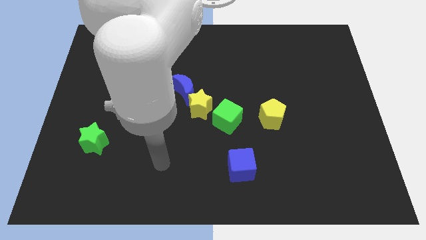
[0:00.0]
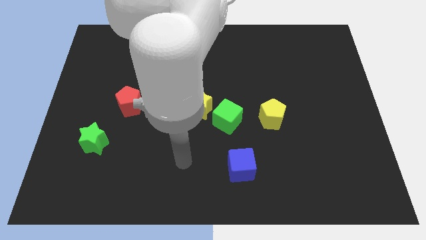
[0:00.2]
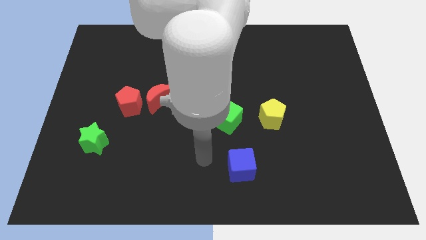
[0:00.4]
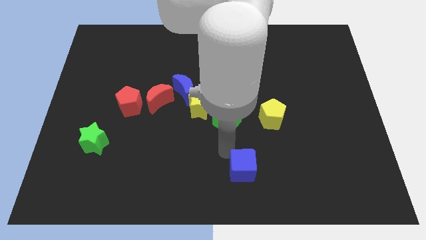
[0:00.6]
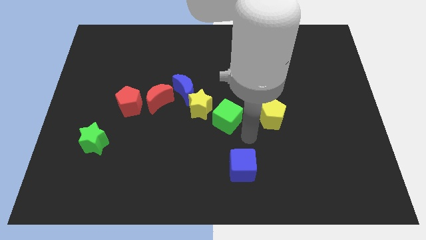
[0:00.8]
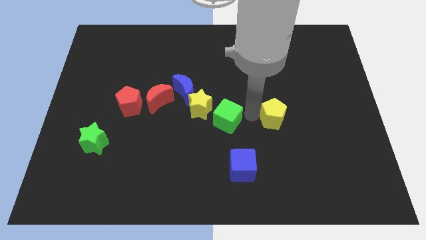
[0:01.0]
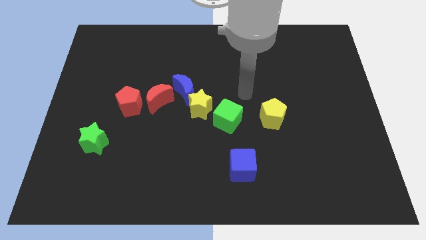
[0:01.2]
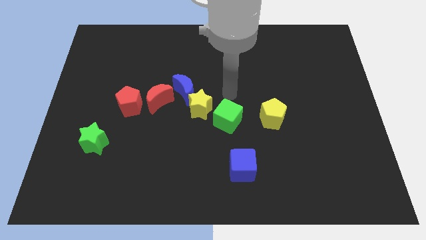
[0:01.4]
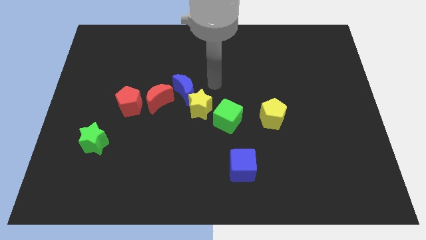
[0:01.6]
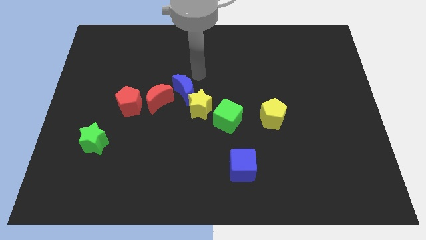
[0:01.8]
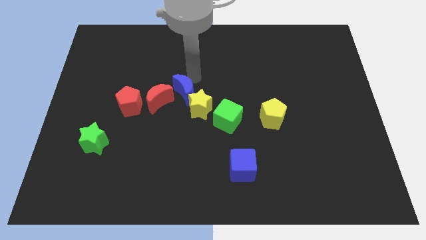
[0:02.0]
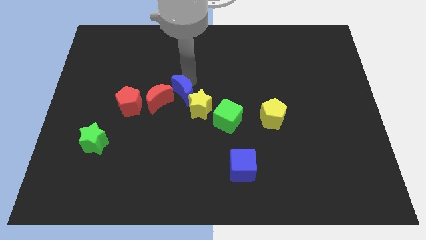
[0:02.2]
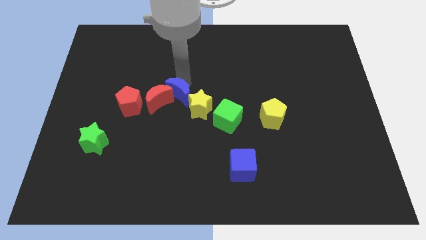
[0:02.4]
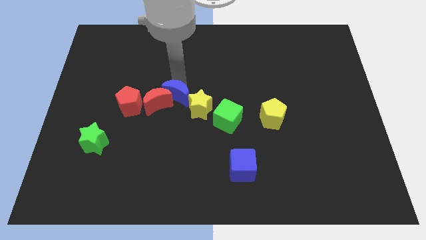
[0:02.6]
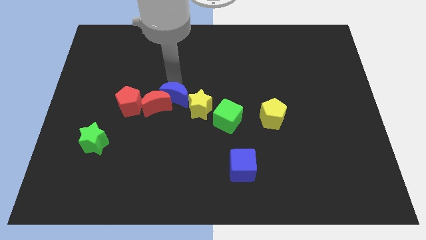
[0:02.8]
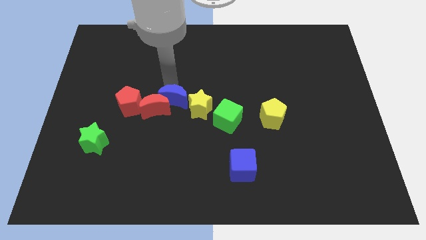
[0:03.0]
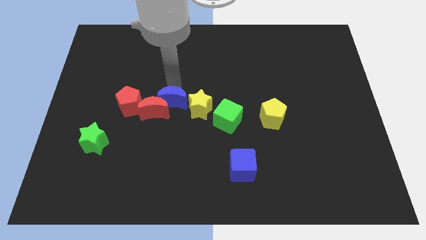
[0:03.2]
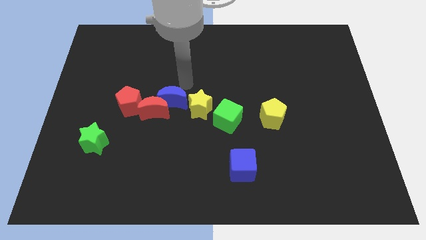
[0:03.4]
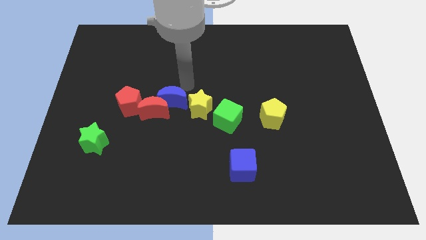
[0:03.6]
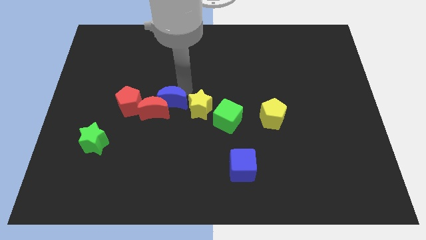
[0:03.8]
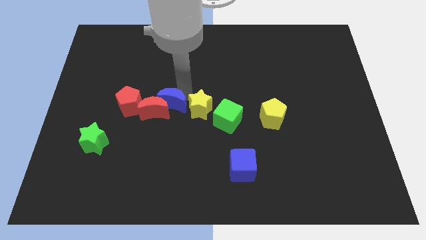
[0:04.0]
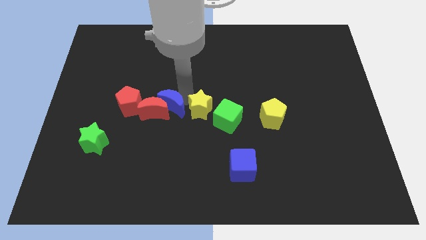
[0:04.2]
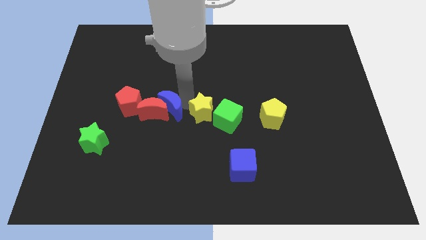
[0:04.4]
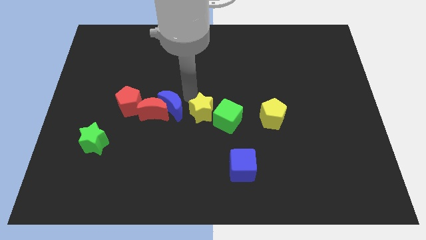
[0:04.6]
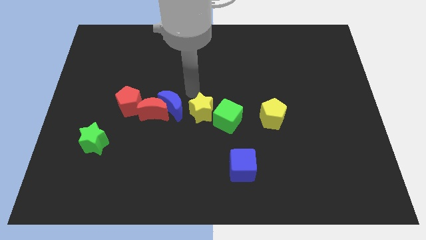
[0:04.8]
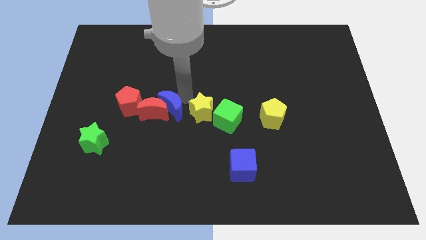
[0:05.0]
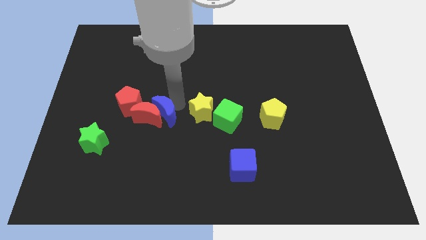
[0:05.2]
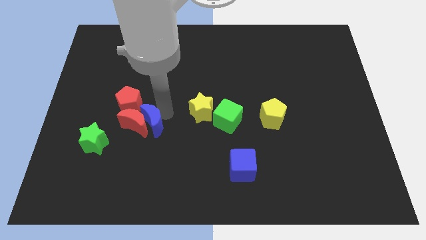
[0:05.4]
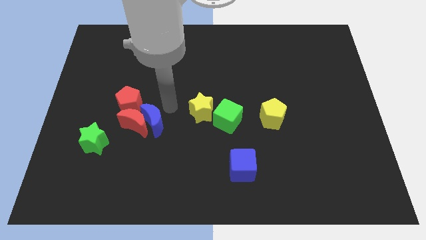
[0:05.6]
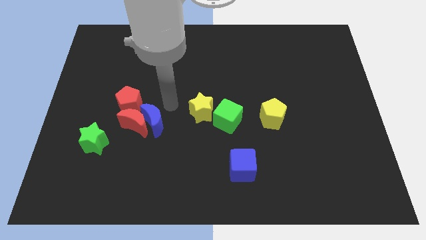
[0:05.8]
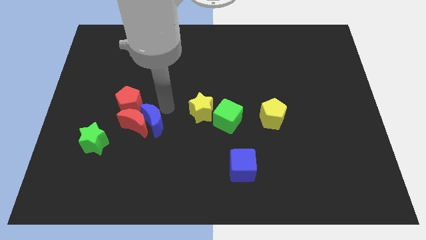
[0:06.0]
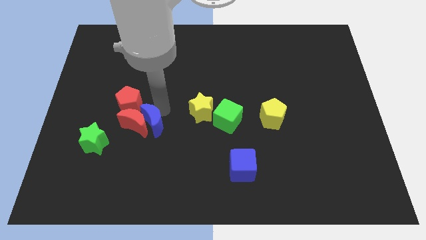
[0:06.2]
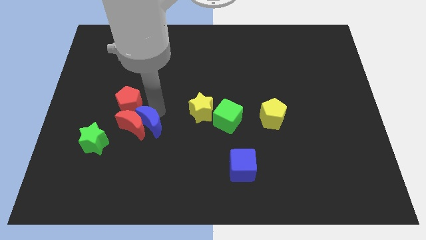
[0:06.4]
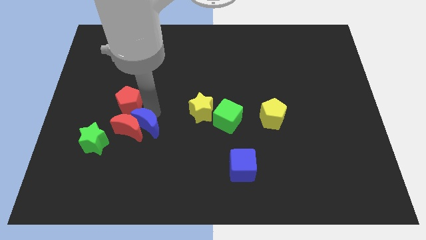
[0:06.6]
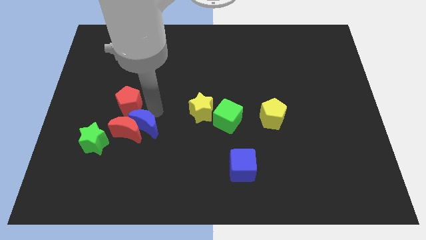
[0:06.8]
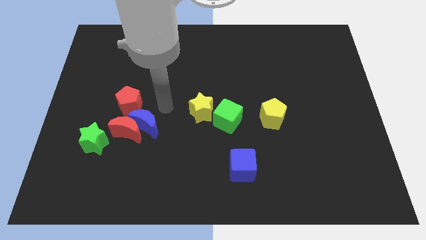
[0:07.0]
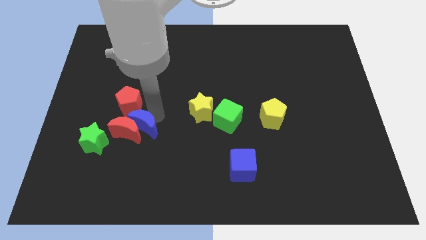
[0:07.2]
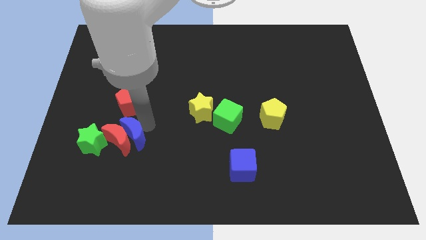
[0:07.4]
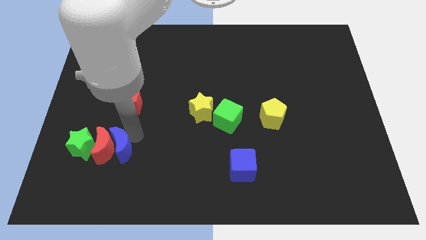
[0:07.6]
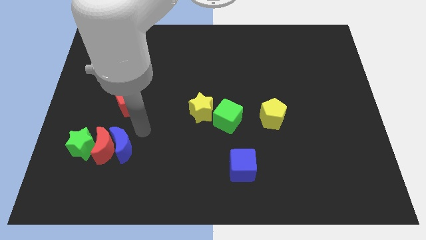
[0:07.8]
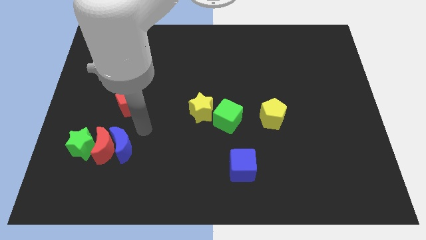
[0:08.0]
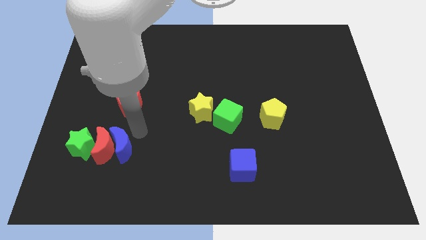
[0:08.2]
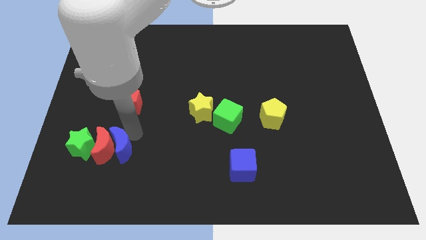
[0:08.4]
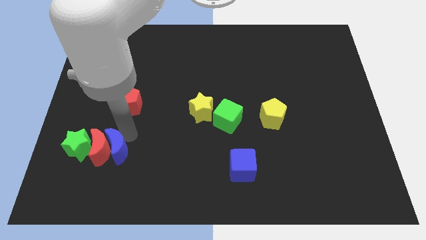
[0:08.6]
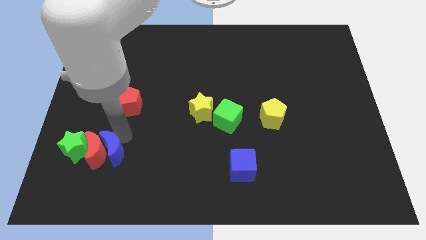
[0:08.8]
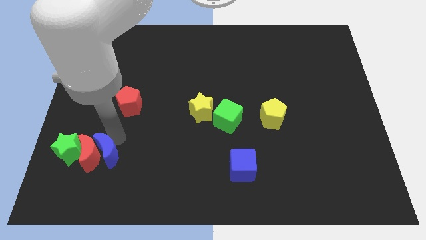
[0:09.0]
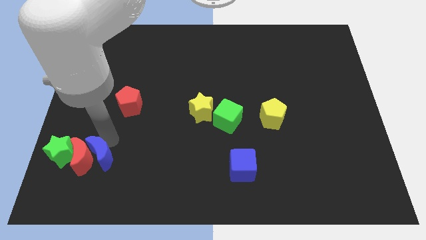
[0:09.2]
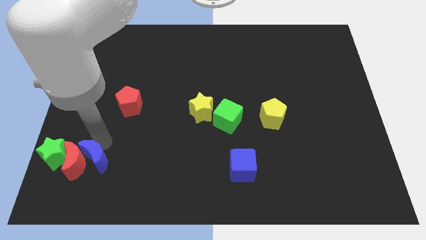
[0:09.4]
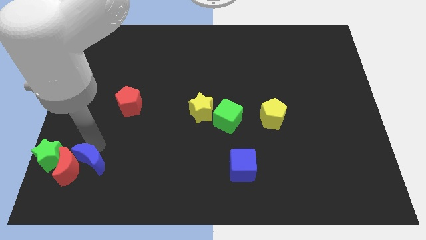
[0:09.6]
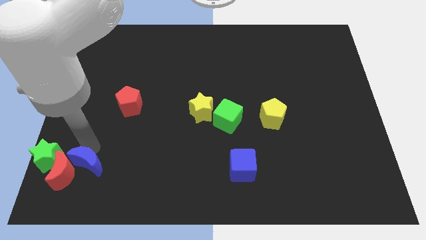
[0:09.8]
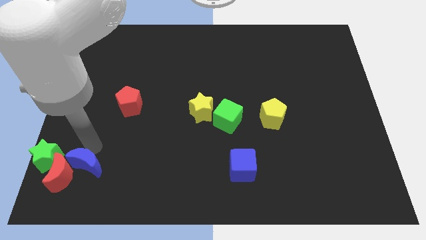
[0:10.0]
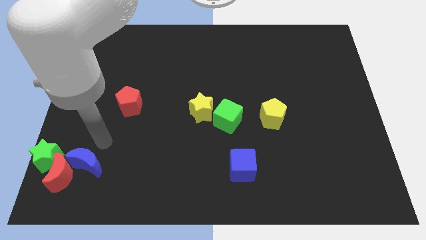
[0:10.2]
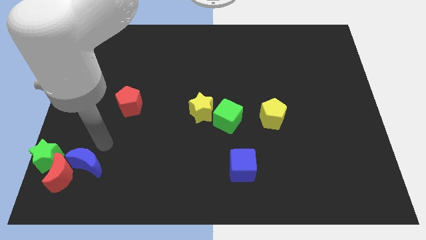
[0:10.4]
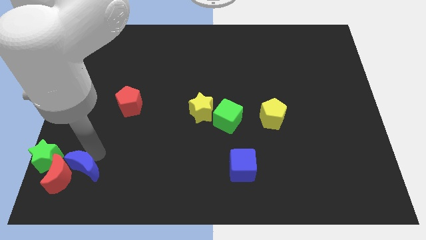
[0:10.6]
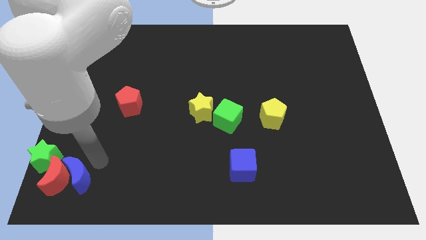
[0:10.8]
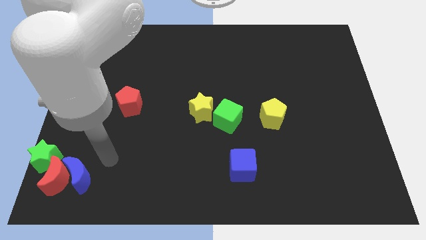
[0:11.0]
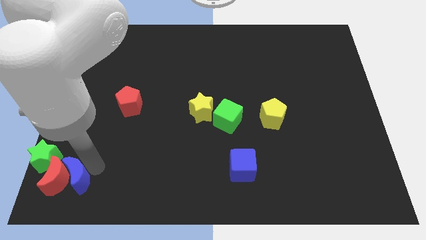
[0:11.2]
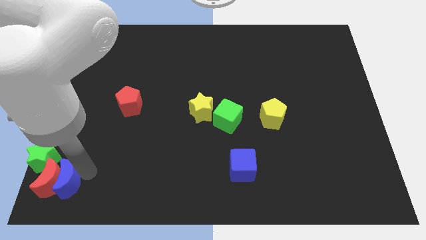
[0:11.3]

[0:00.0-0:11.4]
put the blue moon to the lower left corner

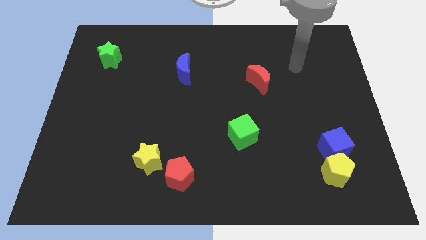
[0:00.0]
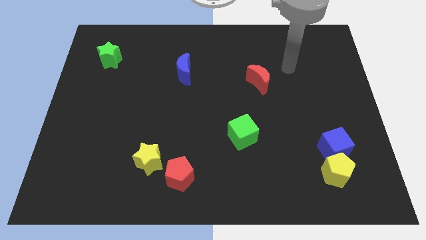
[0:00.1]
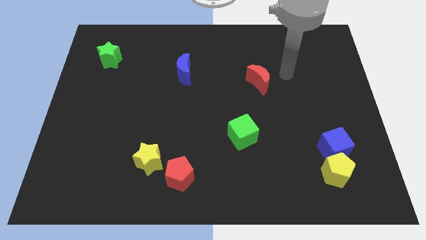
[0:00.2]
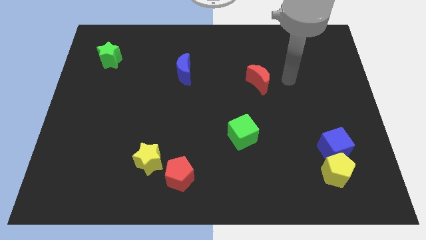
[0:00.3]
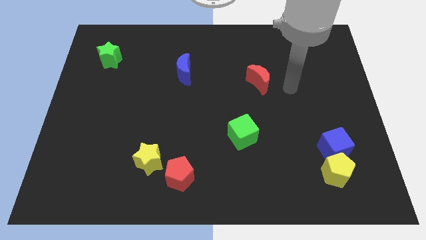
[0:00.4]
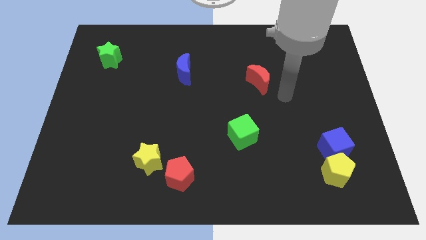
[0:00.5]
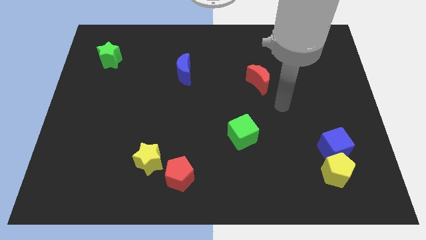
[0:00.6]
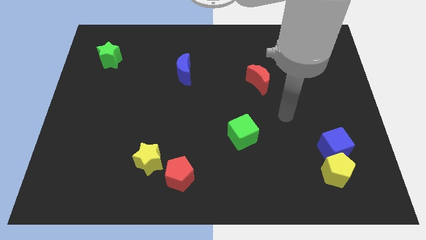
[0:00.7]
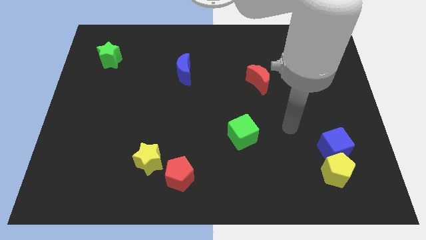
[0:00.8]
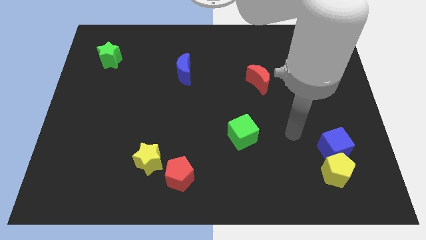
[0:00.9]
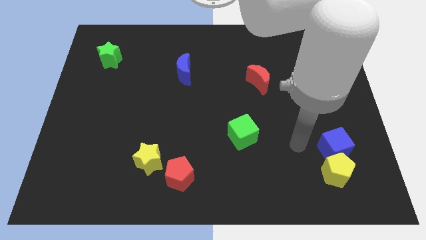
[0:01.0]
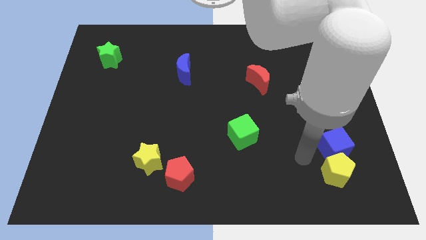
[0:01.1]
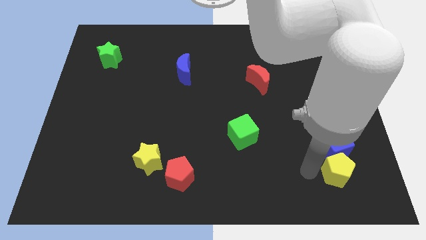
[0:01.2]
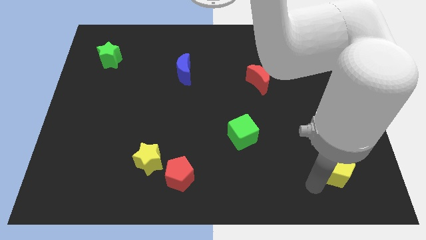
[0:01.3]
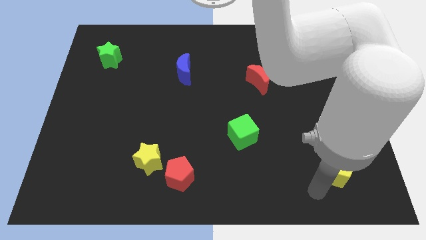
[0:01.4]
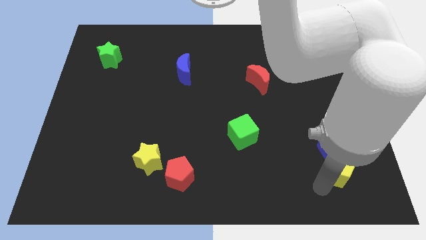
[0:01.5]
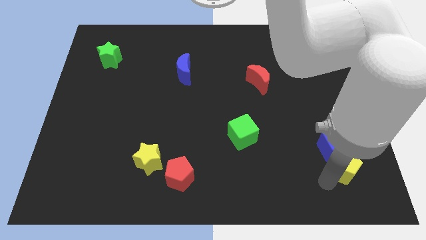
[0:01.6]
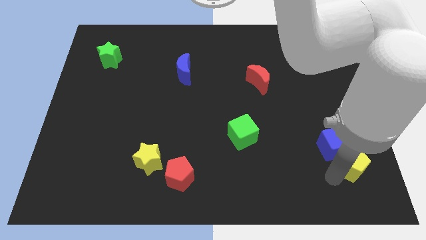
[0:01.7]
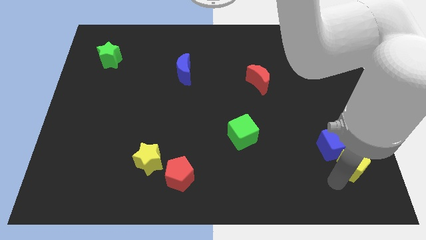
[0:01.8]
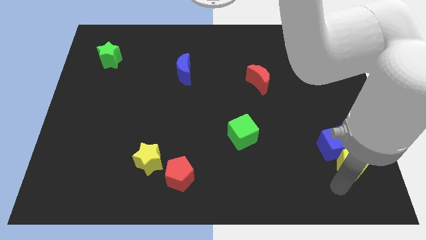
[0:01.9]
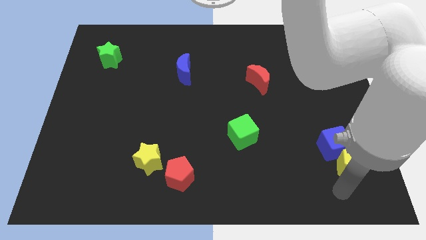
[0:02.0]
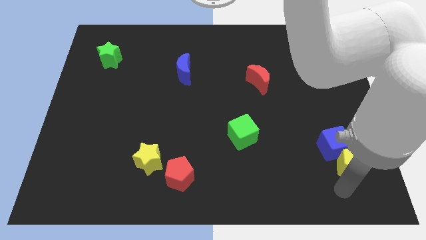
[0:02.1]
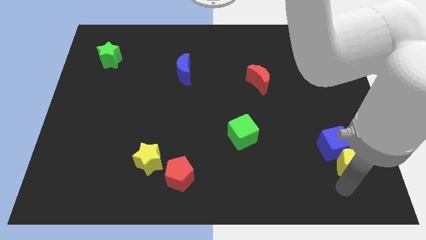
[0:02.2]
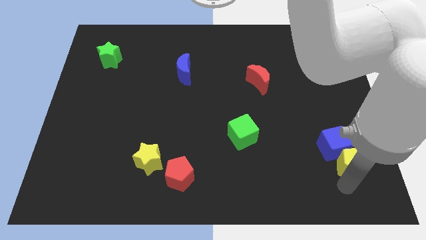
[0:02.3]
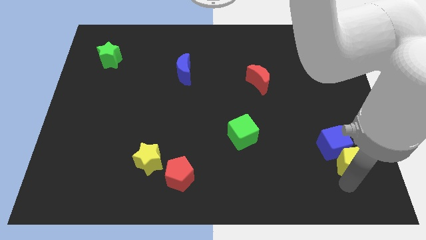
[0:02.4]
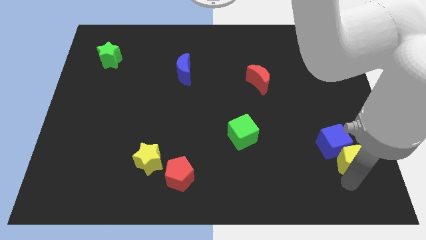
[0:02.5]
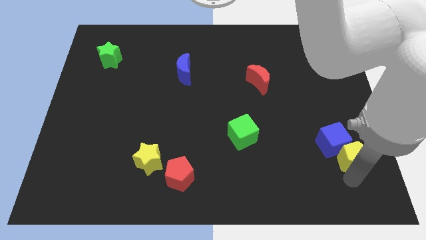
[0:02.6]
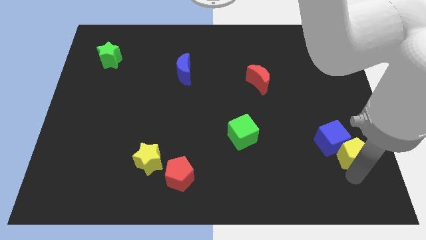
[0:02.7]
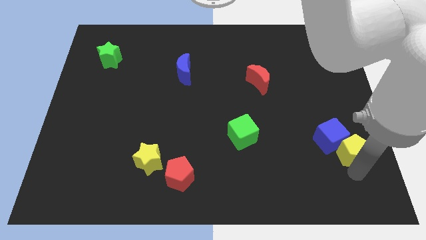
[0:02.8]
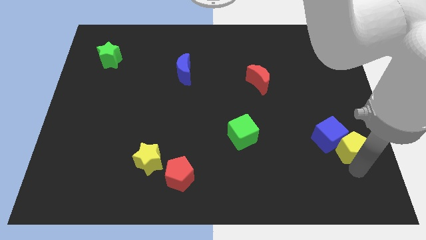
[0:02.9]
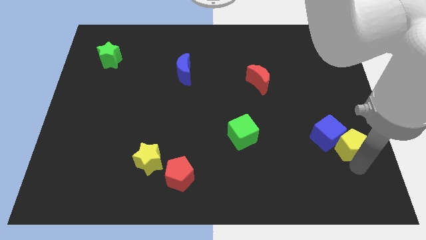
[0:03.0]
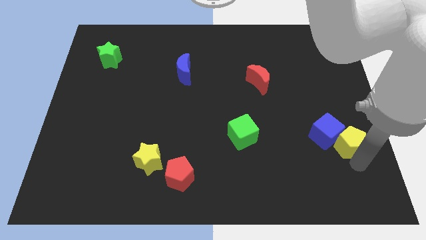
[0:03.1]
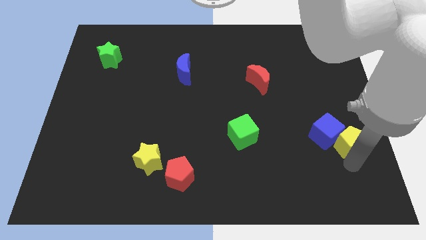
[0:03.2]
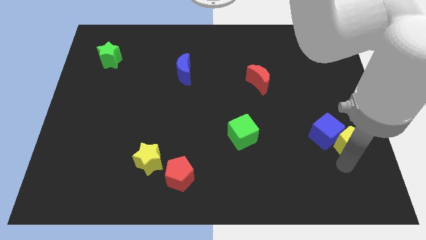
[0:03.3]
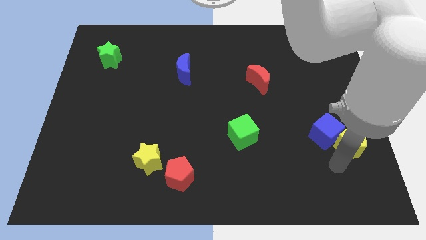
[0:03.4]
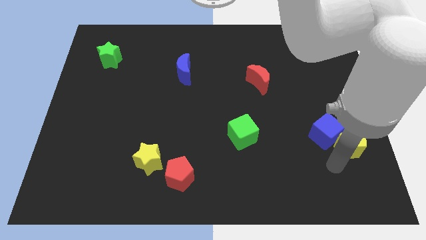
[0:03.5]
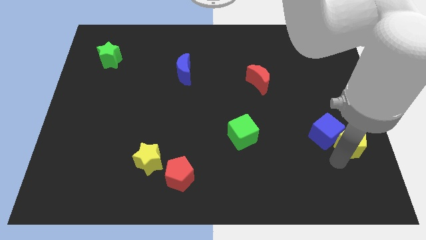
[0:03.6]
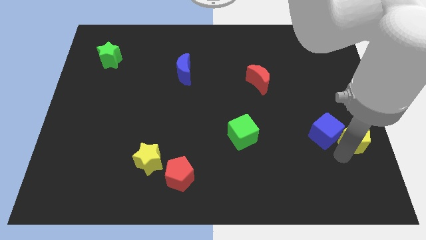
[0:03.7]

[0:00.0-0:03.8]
move the yellow pentagon to the center right
